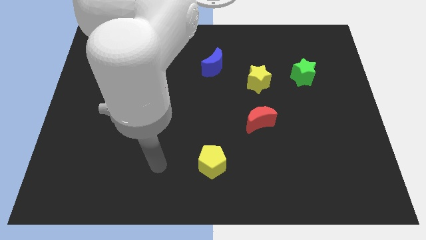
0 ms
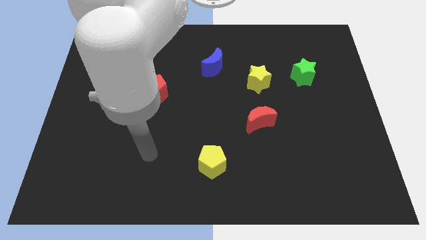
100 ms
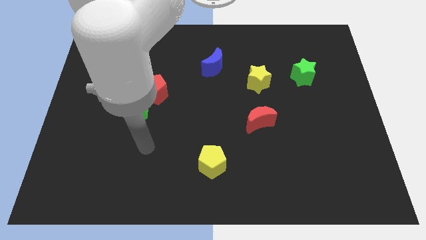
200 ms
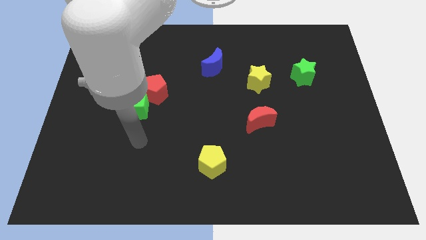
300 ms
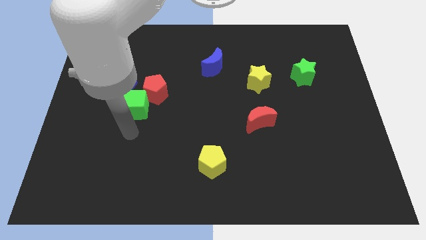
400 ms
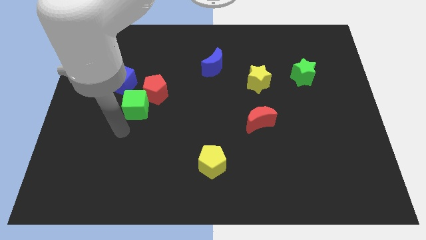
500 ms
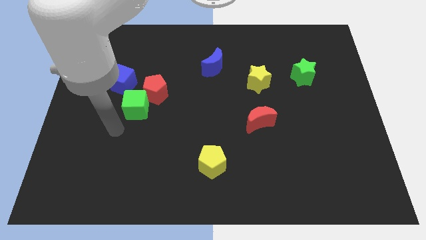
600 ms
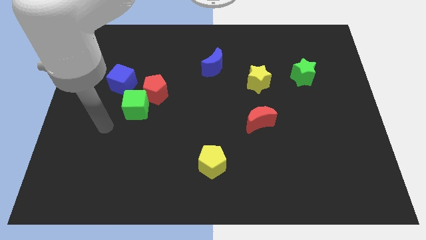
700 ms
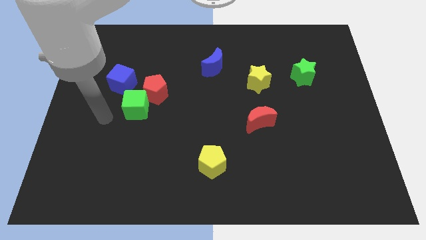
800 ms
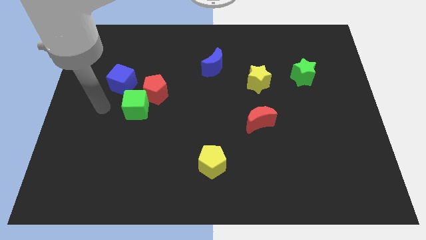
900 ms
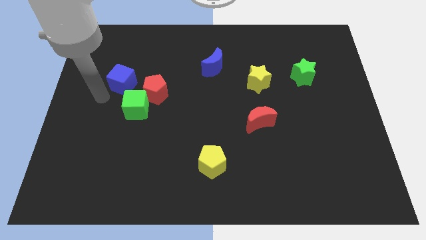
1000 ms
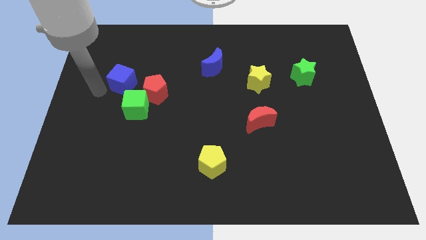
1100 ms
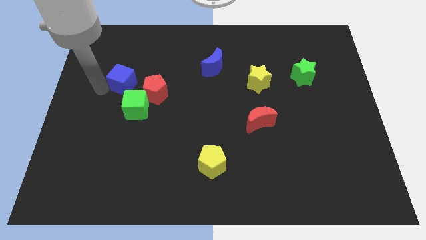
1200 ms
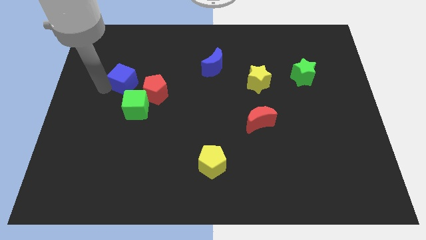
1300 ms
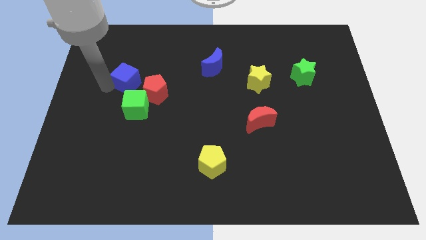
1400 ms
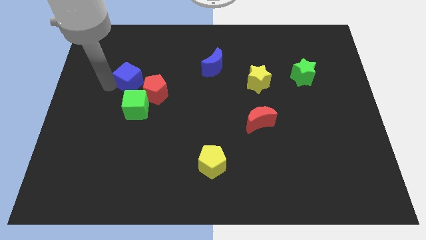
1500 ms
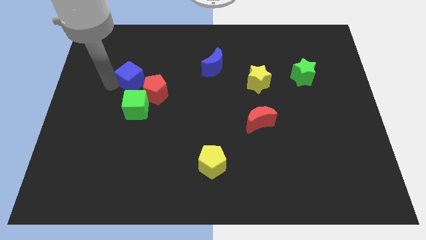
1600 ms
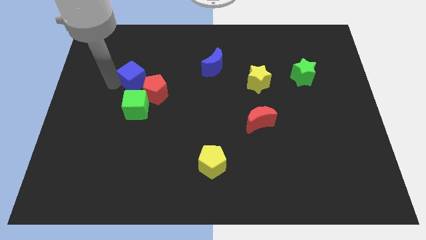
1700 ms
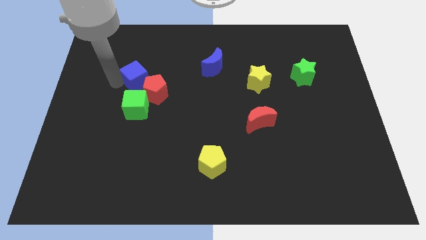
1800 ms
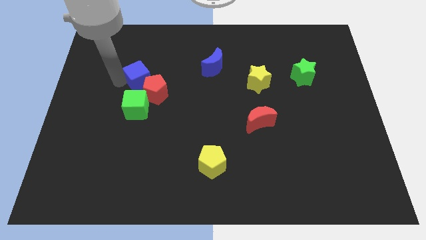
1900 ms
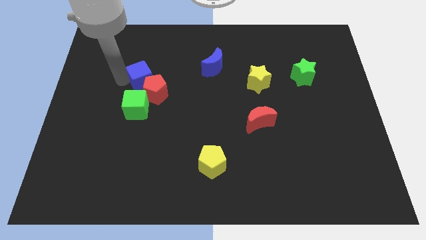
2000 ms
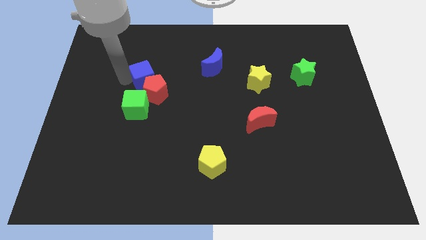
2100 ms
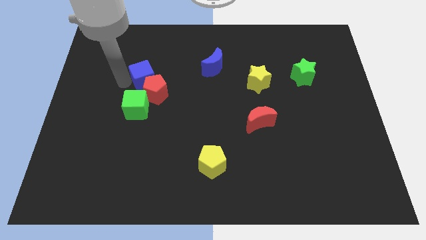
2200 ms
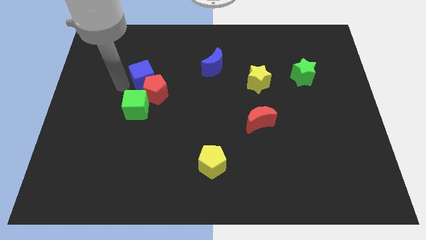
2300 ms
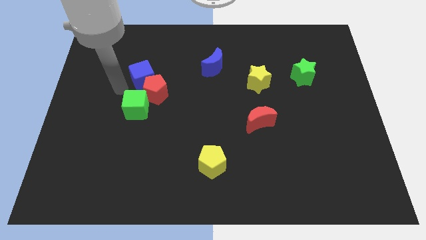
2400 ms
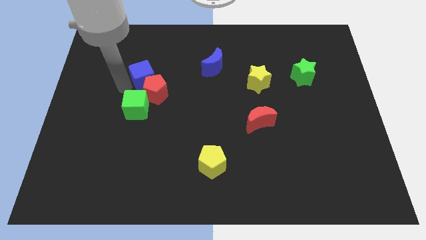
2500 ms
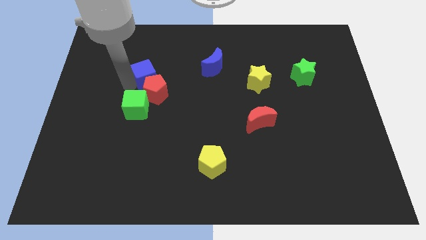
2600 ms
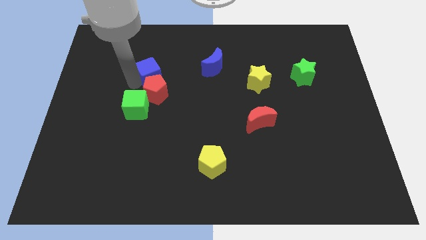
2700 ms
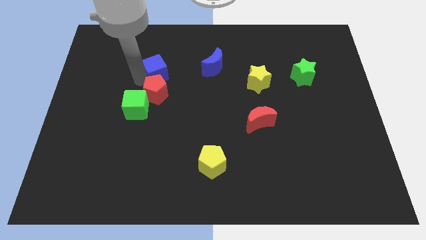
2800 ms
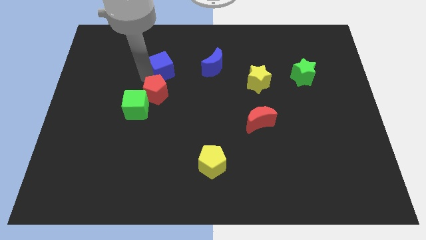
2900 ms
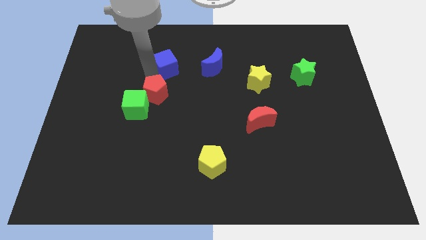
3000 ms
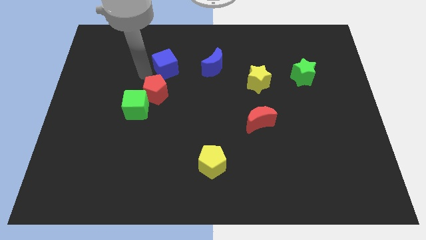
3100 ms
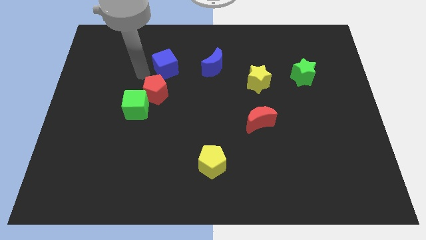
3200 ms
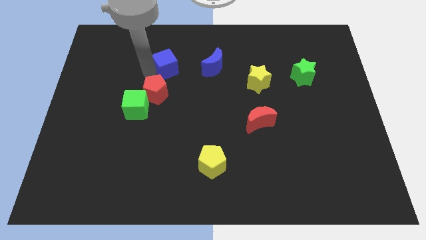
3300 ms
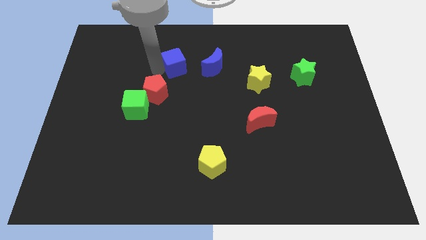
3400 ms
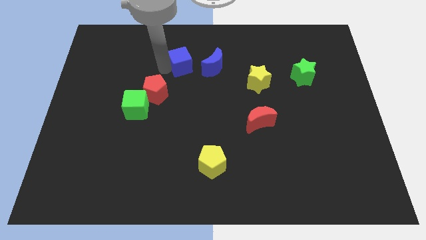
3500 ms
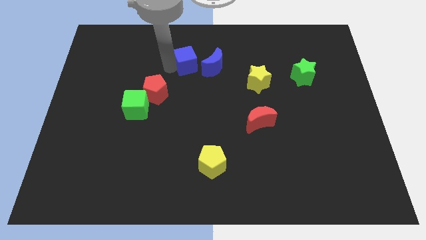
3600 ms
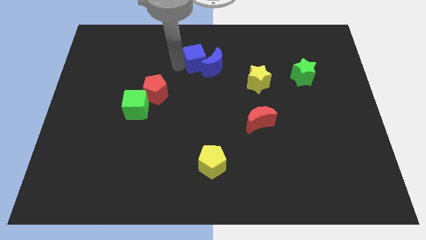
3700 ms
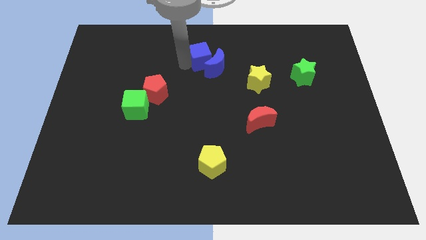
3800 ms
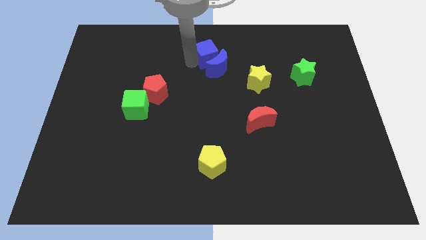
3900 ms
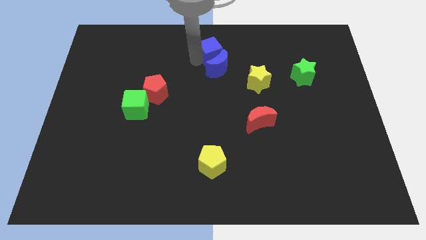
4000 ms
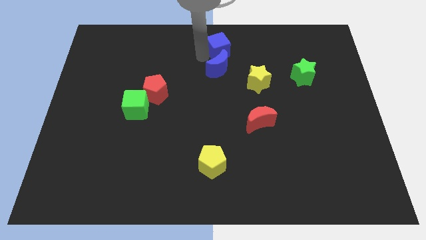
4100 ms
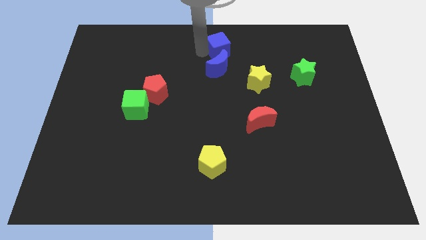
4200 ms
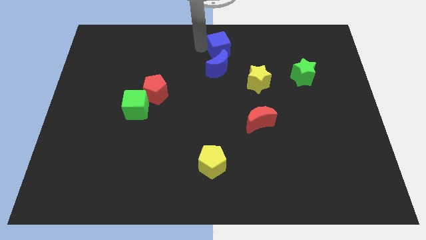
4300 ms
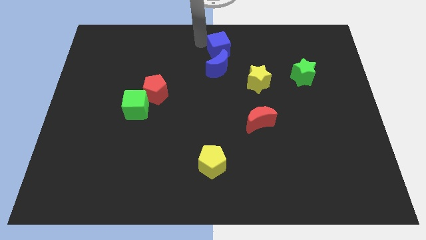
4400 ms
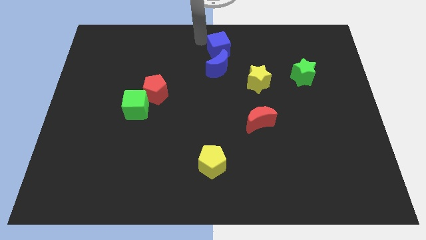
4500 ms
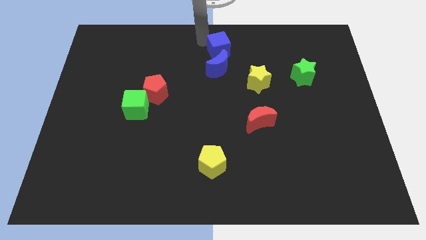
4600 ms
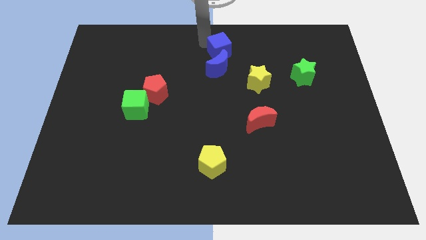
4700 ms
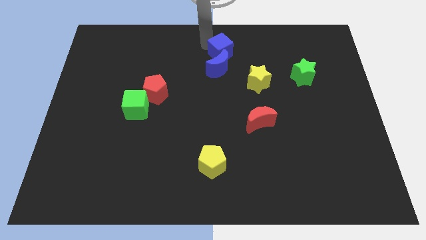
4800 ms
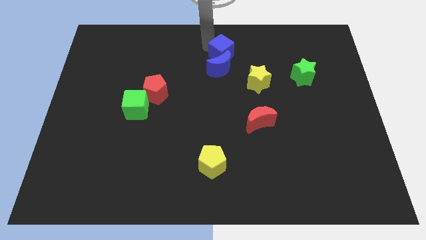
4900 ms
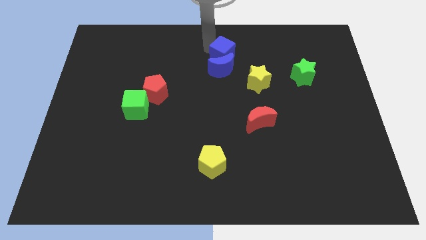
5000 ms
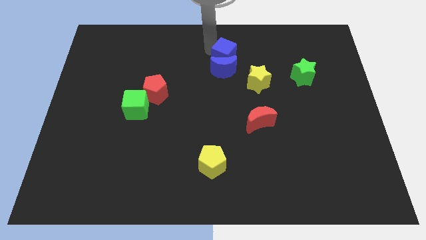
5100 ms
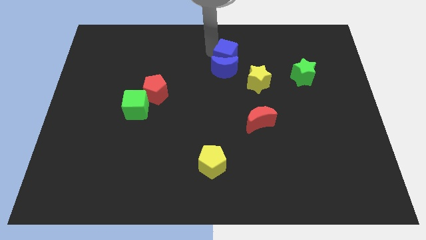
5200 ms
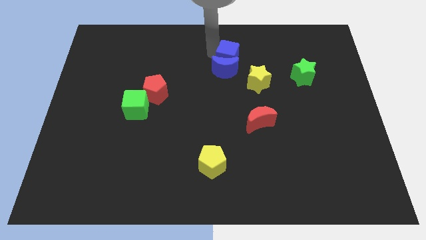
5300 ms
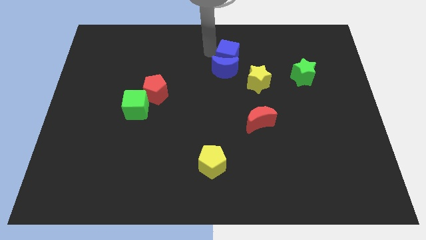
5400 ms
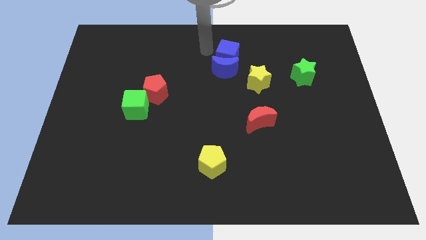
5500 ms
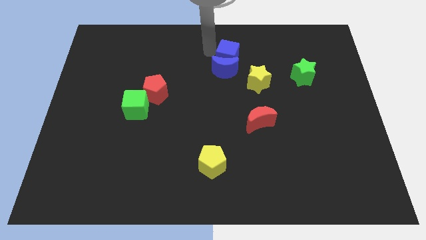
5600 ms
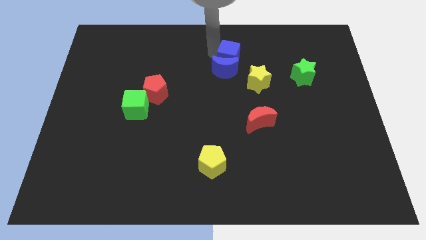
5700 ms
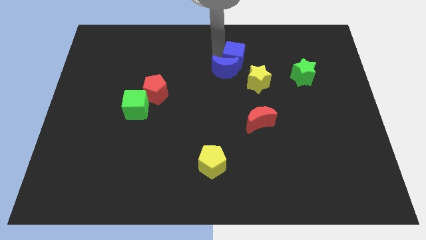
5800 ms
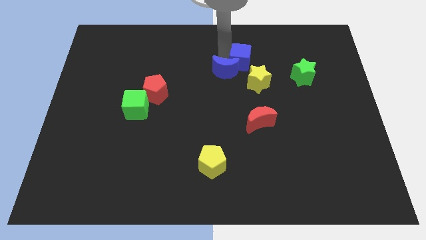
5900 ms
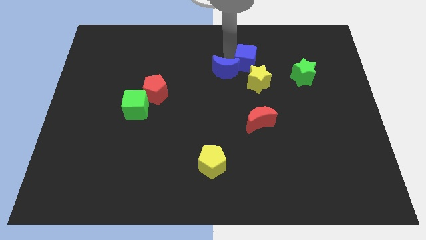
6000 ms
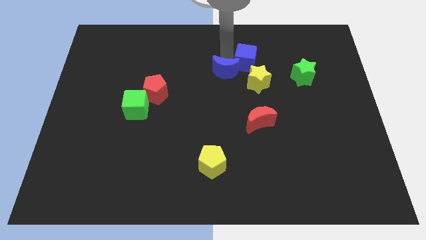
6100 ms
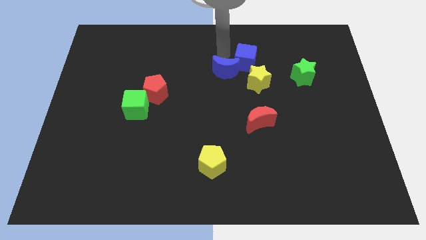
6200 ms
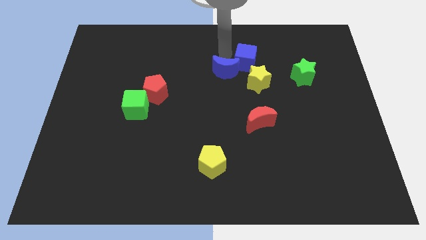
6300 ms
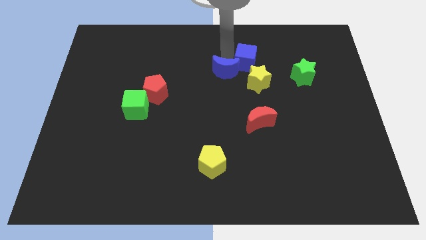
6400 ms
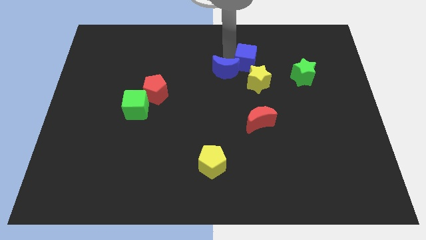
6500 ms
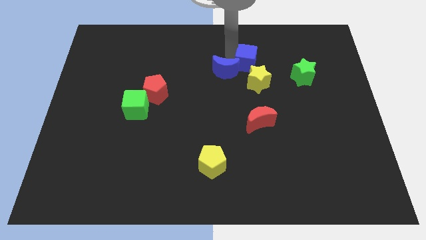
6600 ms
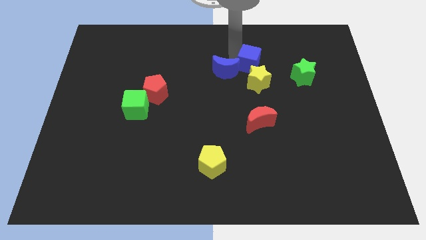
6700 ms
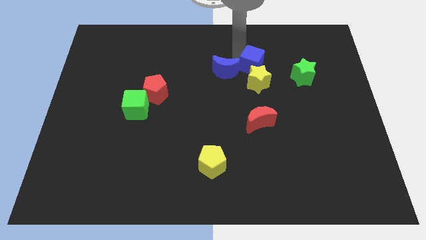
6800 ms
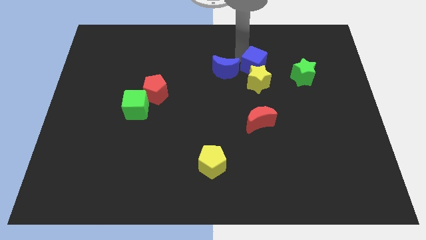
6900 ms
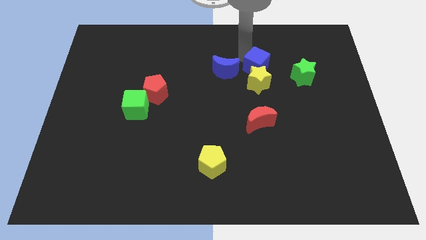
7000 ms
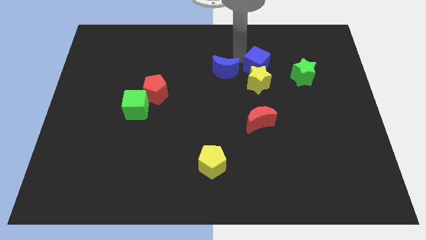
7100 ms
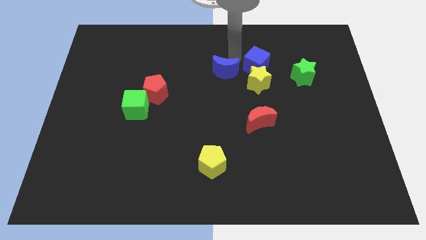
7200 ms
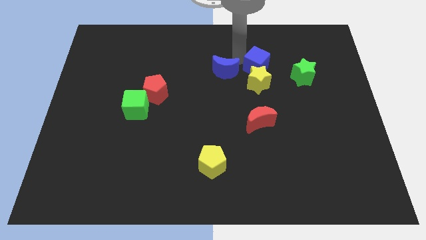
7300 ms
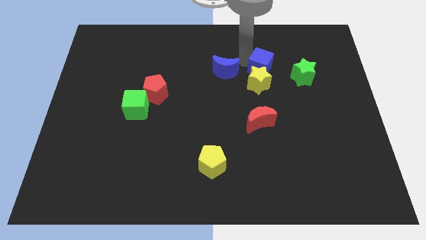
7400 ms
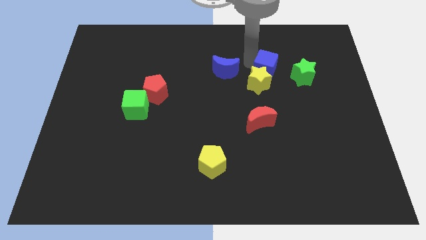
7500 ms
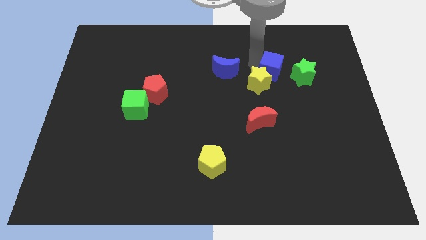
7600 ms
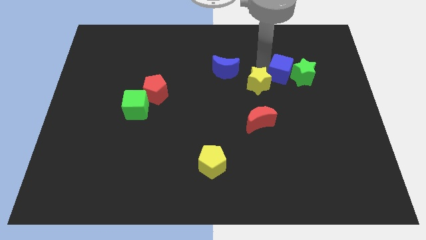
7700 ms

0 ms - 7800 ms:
put the blue cube next to the green star
